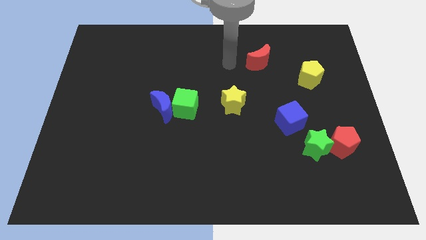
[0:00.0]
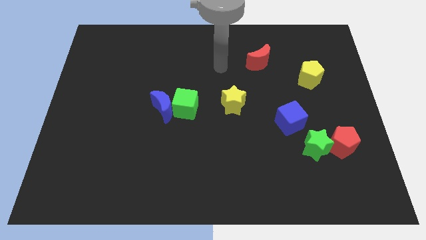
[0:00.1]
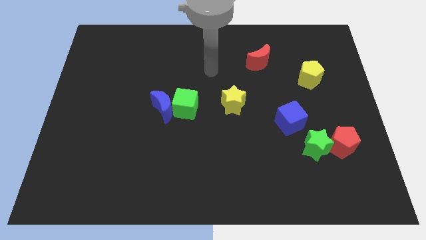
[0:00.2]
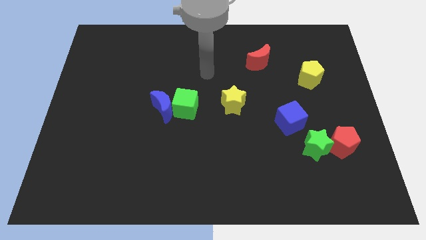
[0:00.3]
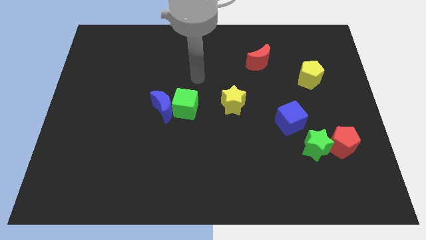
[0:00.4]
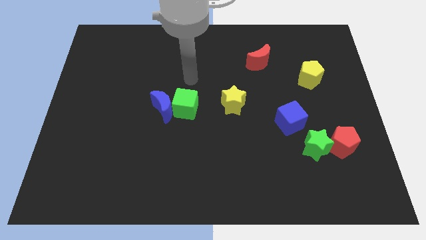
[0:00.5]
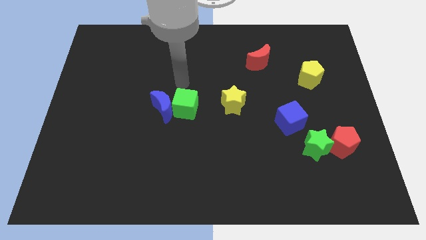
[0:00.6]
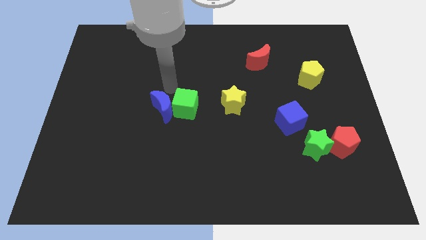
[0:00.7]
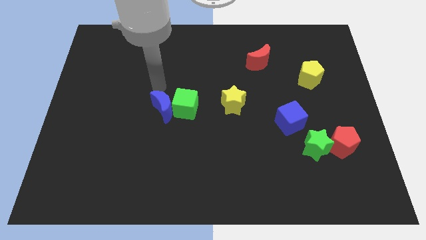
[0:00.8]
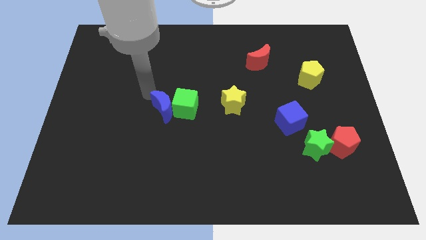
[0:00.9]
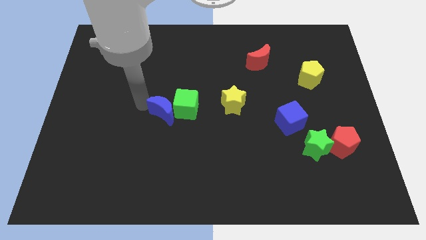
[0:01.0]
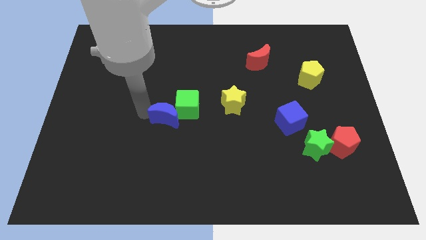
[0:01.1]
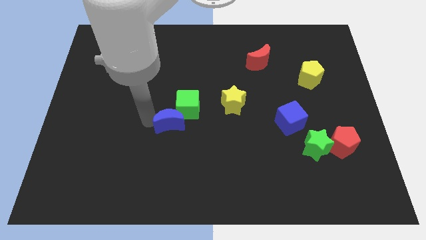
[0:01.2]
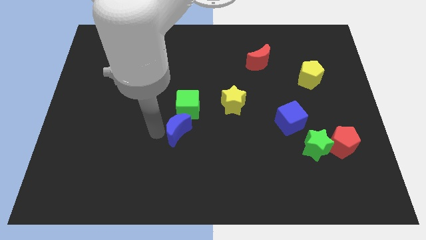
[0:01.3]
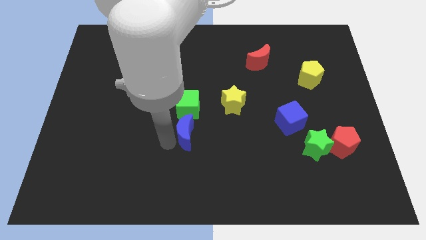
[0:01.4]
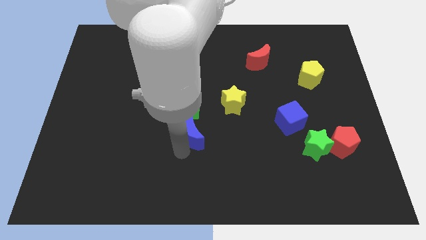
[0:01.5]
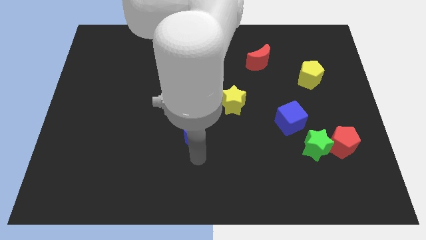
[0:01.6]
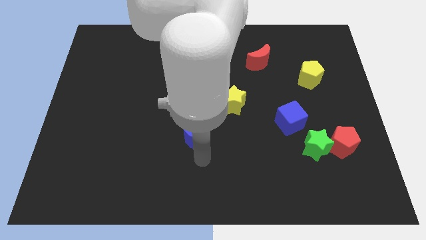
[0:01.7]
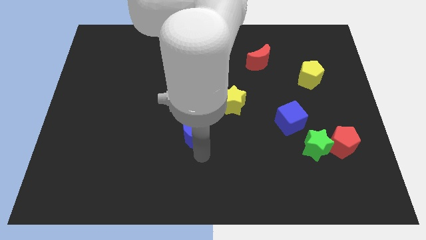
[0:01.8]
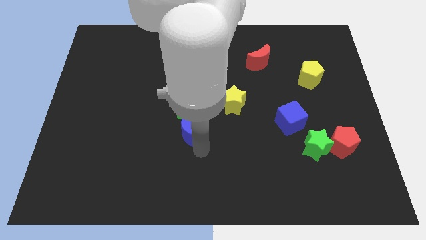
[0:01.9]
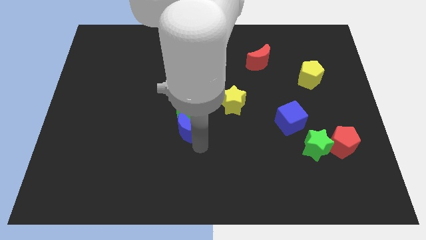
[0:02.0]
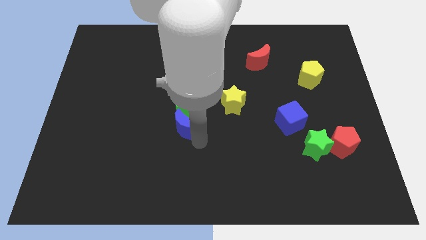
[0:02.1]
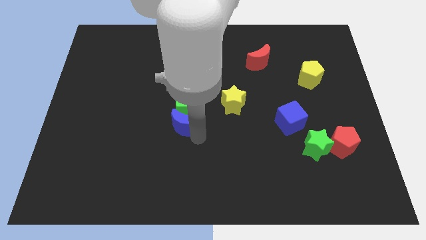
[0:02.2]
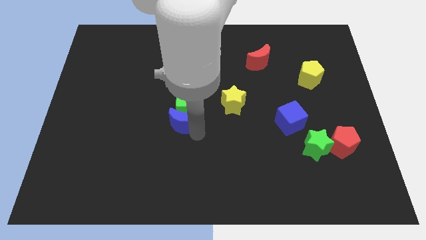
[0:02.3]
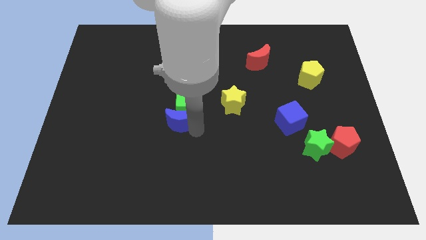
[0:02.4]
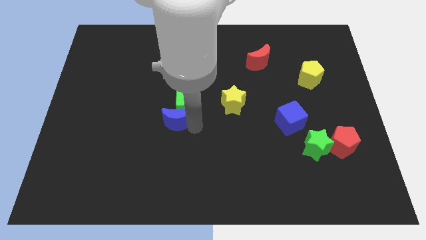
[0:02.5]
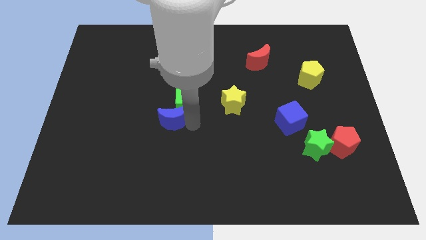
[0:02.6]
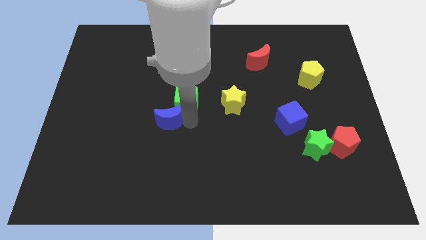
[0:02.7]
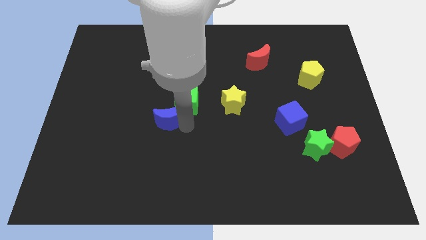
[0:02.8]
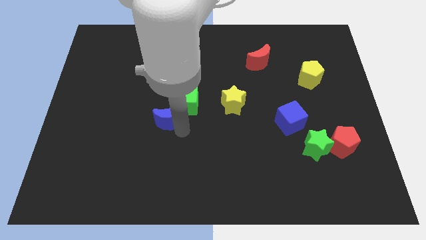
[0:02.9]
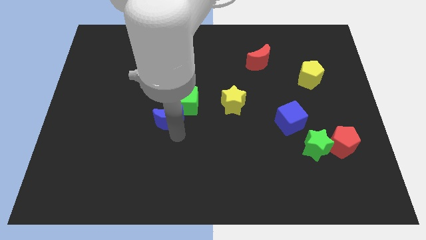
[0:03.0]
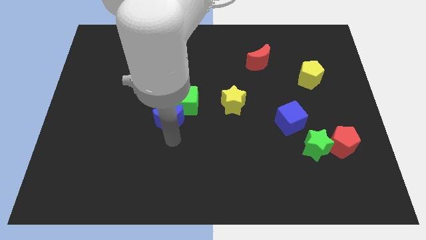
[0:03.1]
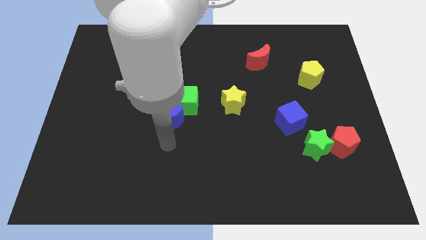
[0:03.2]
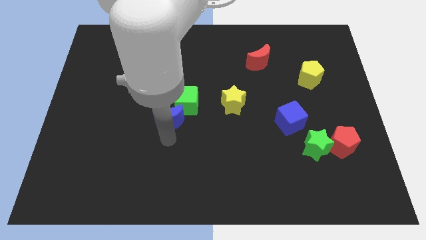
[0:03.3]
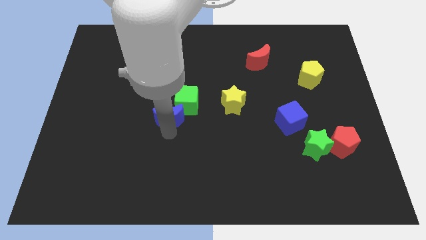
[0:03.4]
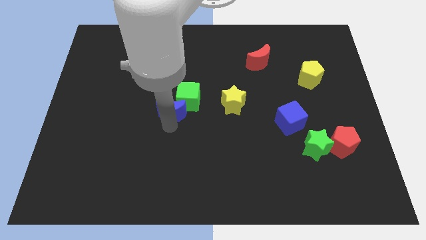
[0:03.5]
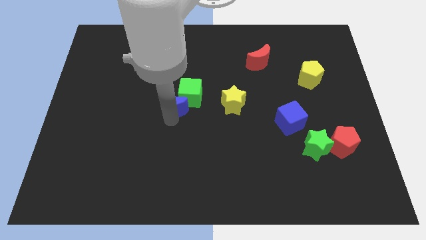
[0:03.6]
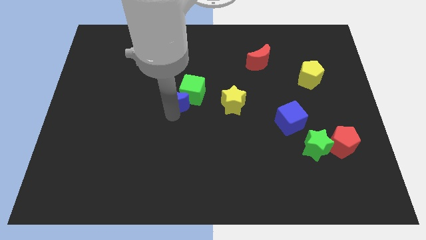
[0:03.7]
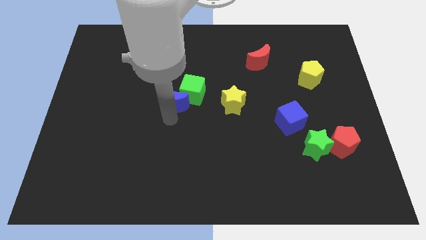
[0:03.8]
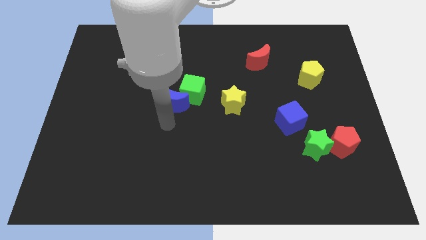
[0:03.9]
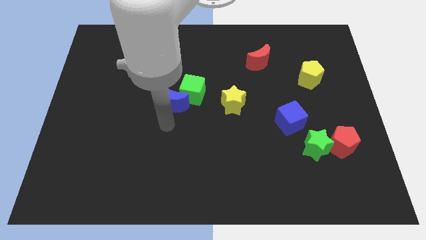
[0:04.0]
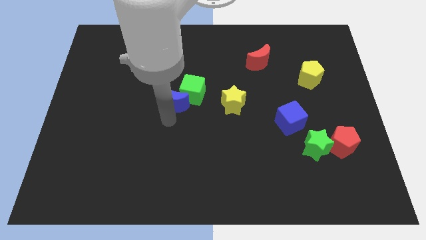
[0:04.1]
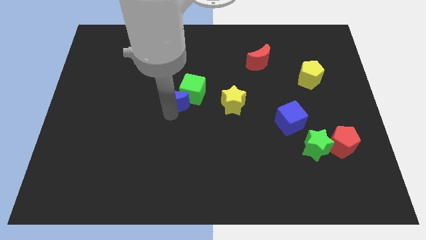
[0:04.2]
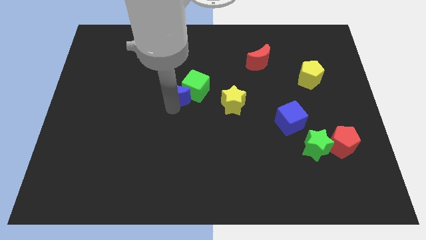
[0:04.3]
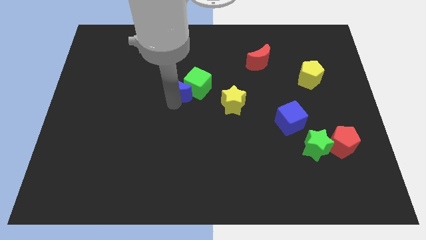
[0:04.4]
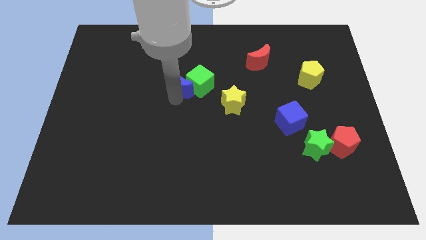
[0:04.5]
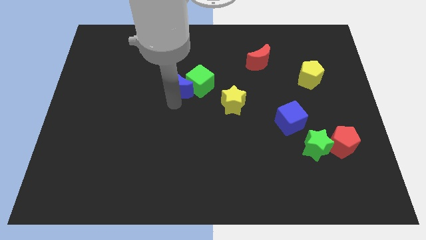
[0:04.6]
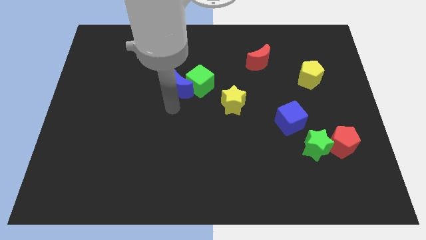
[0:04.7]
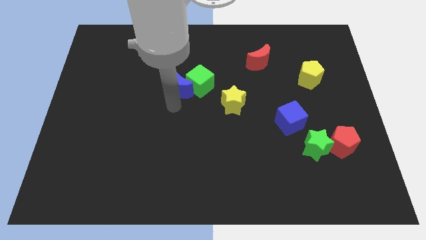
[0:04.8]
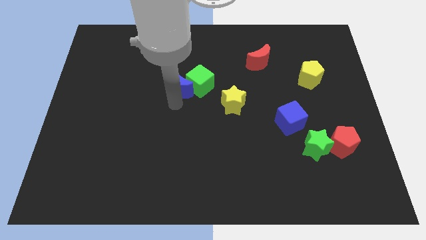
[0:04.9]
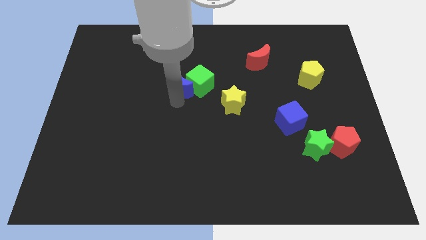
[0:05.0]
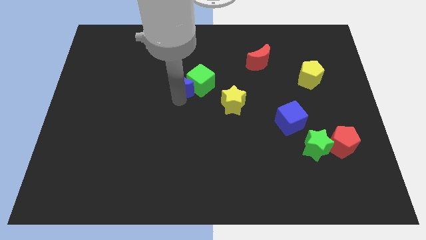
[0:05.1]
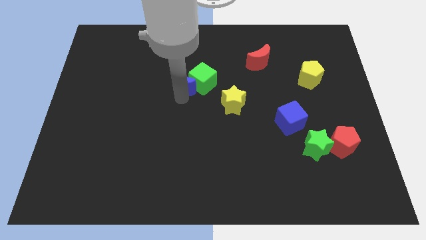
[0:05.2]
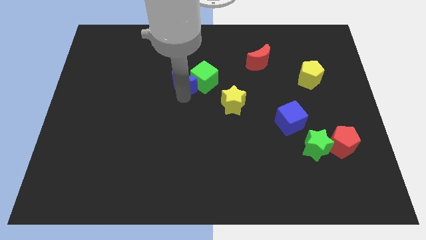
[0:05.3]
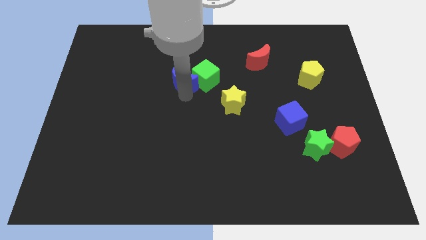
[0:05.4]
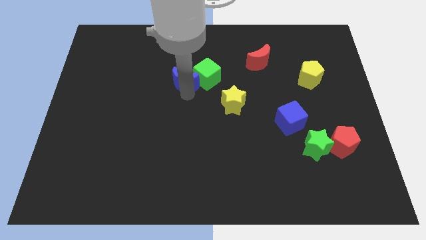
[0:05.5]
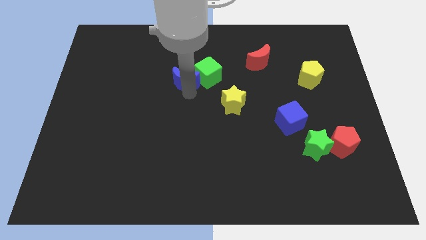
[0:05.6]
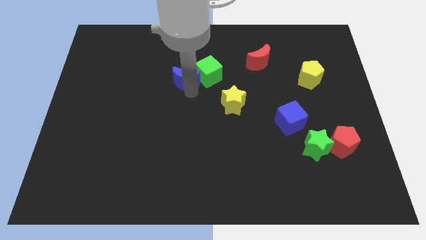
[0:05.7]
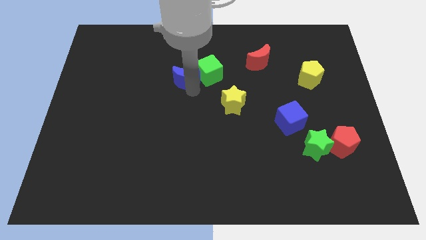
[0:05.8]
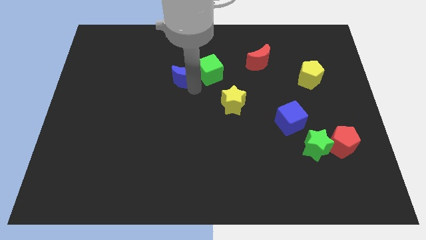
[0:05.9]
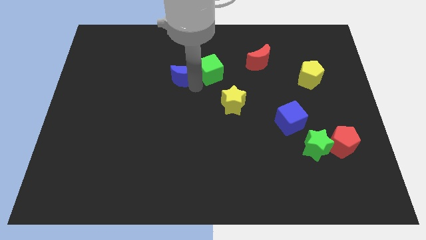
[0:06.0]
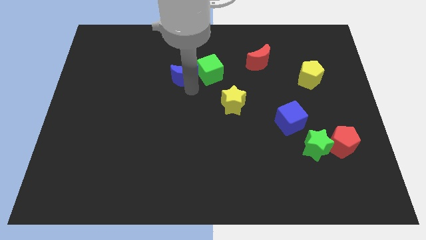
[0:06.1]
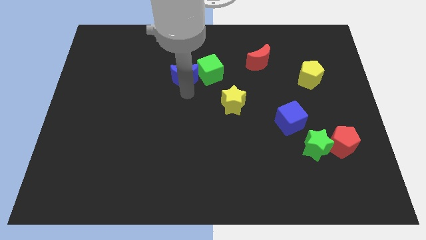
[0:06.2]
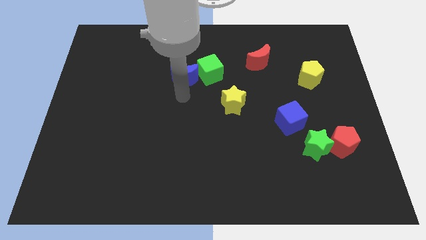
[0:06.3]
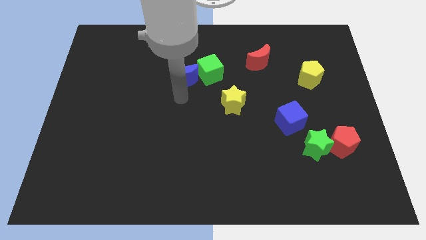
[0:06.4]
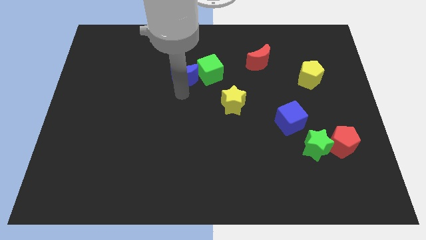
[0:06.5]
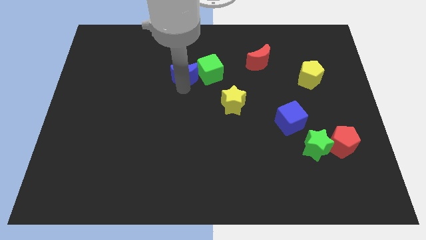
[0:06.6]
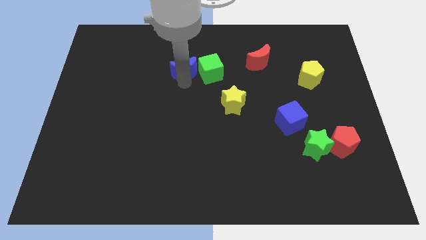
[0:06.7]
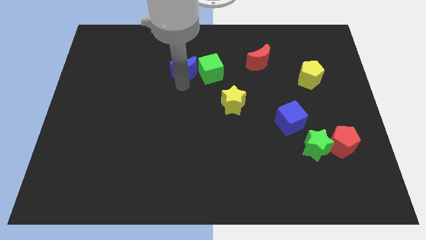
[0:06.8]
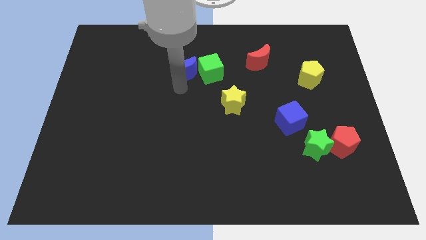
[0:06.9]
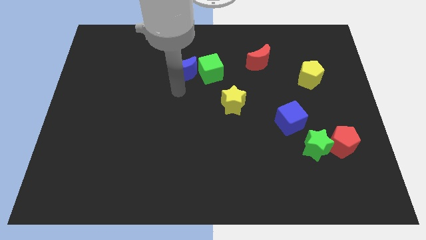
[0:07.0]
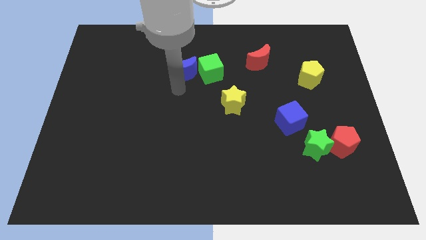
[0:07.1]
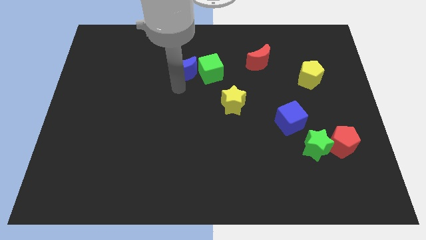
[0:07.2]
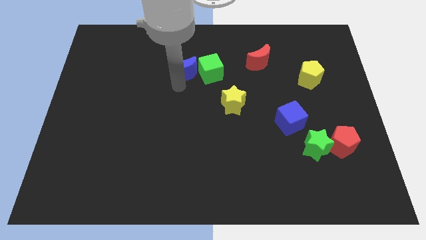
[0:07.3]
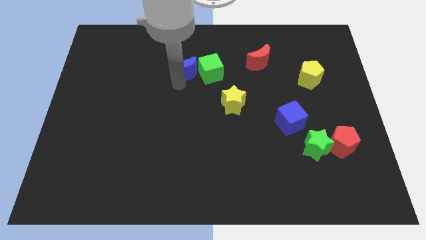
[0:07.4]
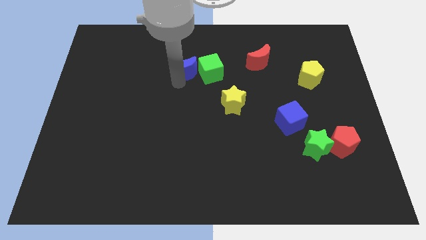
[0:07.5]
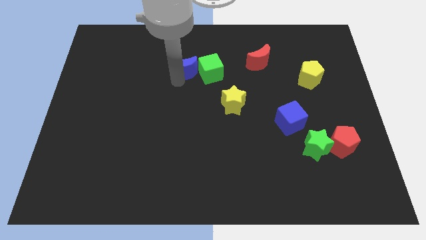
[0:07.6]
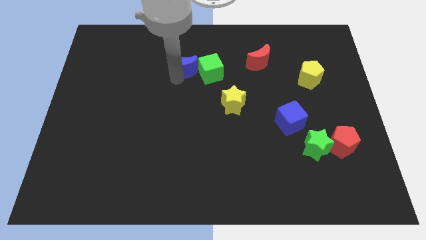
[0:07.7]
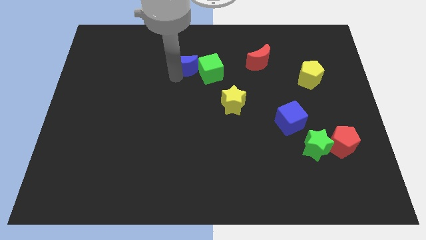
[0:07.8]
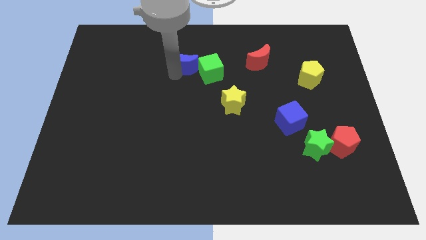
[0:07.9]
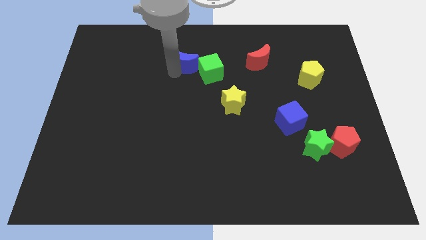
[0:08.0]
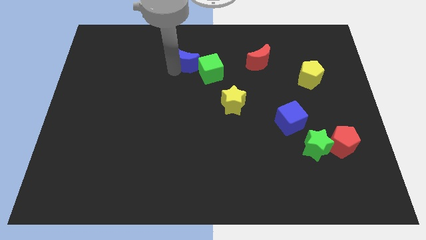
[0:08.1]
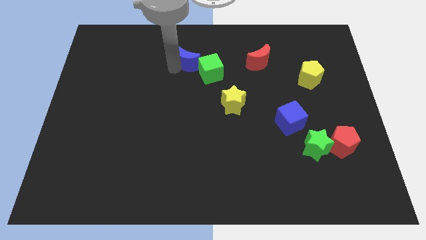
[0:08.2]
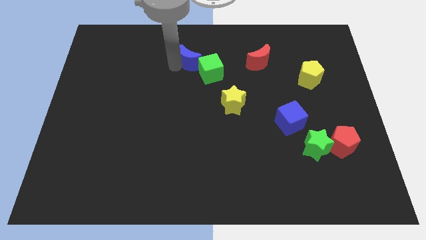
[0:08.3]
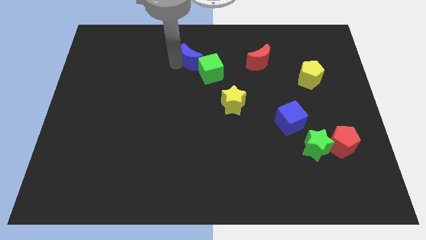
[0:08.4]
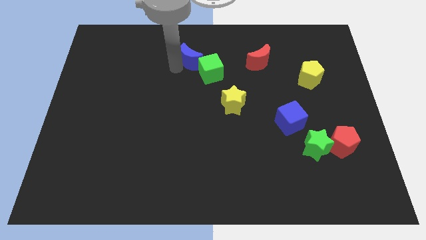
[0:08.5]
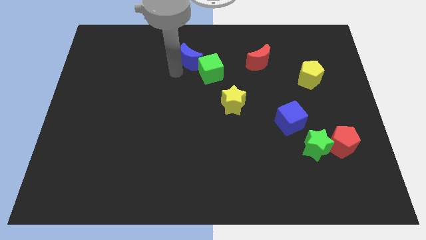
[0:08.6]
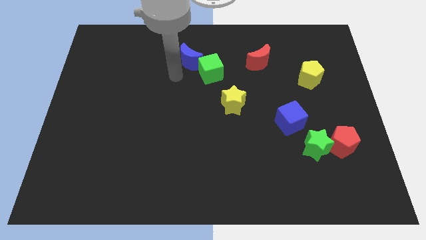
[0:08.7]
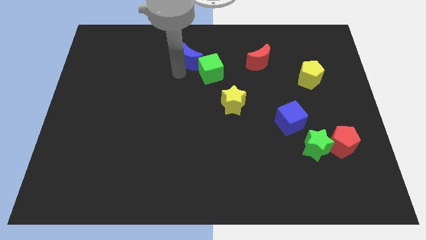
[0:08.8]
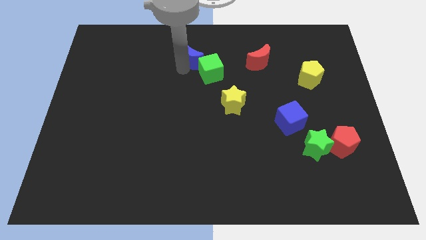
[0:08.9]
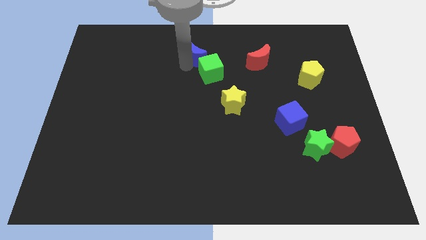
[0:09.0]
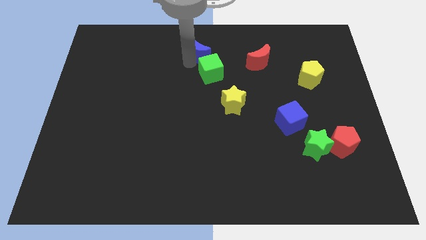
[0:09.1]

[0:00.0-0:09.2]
push the blue moon to the top
